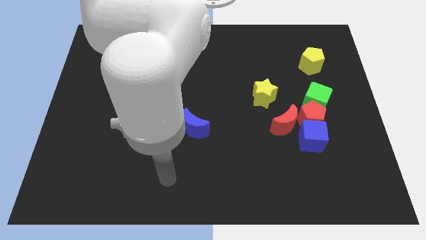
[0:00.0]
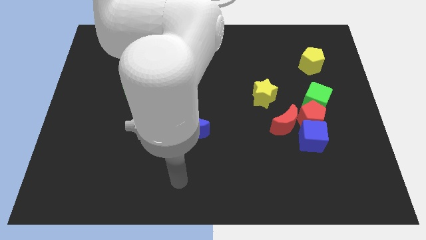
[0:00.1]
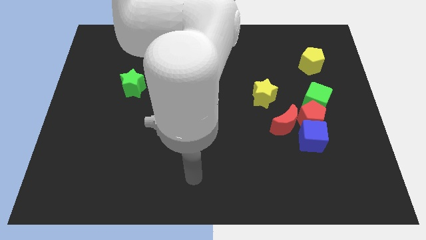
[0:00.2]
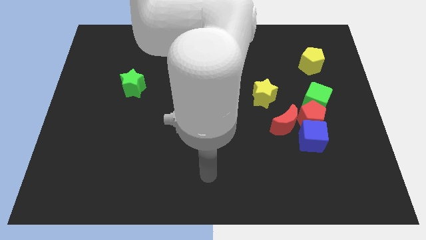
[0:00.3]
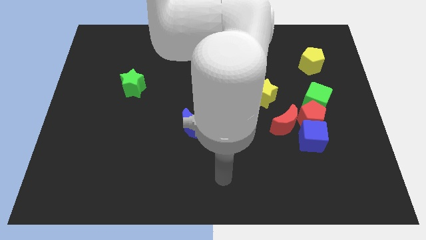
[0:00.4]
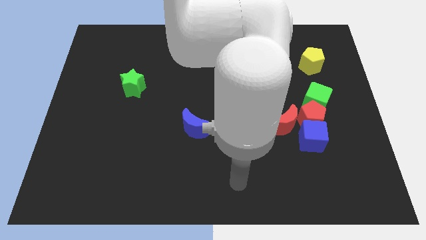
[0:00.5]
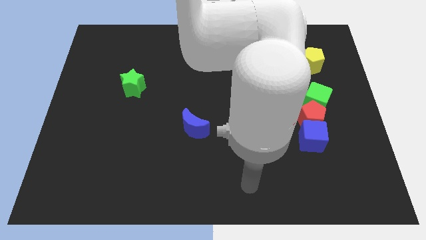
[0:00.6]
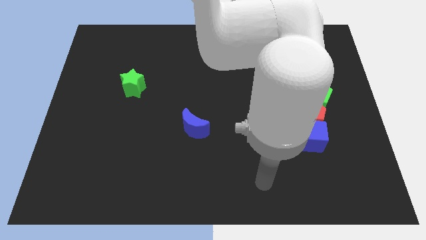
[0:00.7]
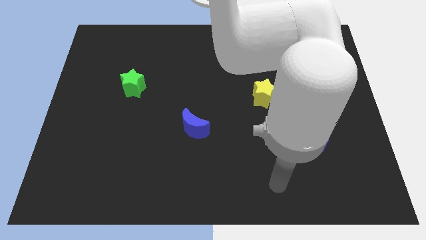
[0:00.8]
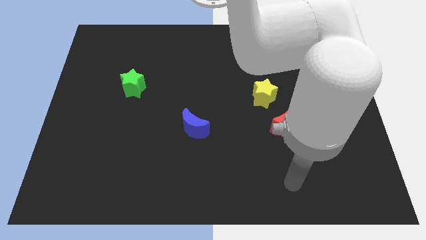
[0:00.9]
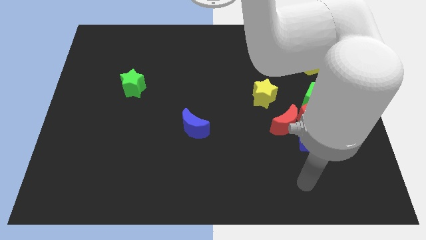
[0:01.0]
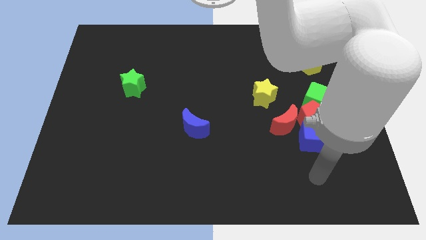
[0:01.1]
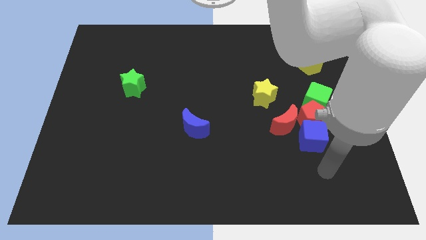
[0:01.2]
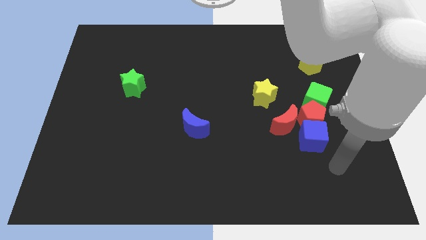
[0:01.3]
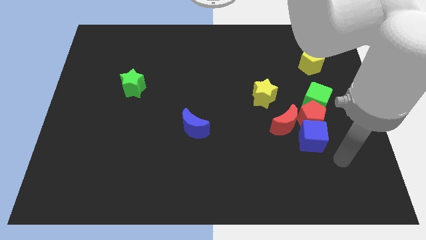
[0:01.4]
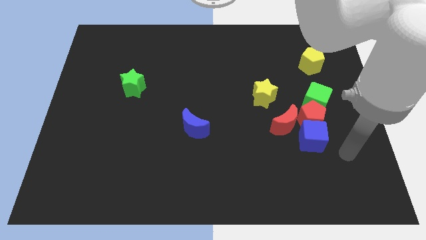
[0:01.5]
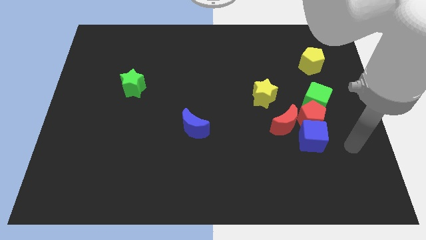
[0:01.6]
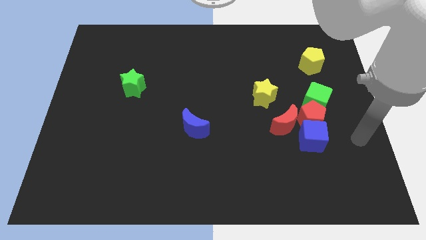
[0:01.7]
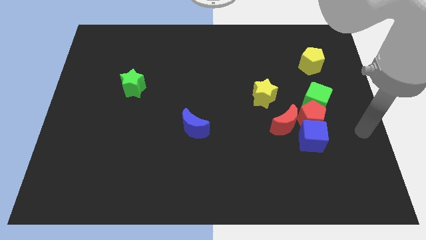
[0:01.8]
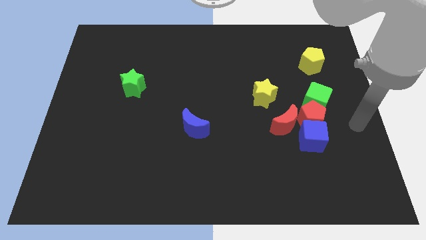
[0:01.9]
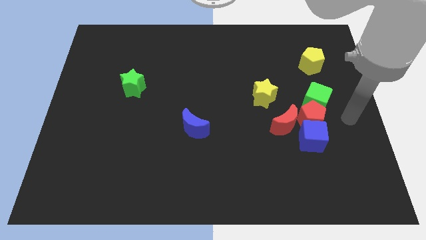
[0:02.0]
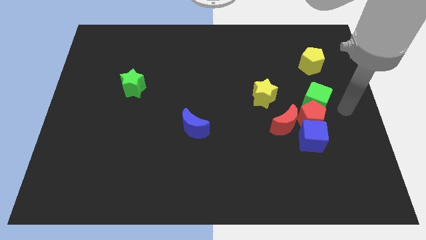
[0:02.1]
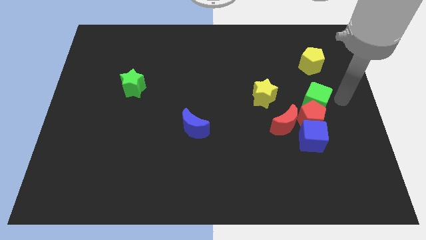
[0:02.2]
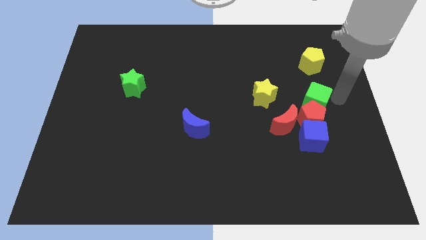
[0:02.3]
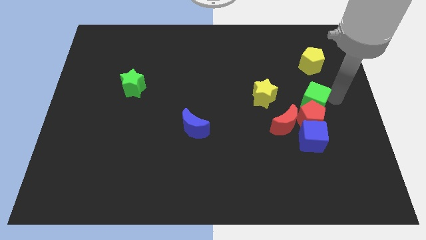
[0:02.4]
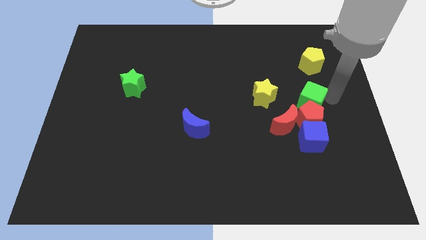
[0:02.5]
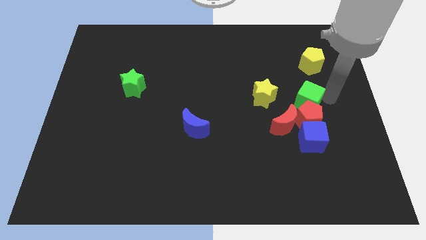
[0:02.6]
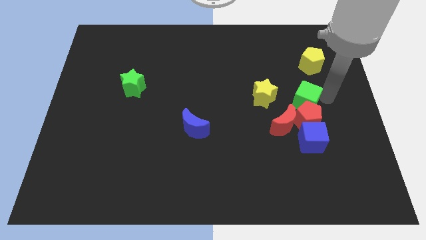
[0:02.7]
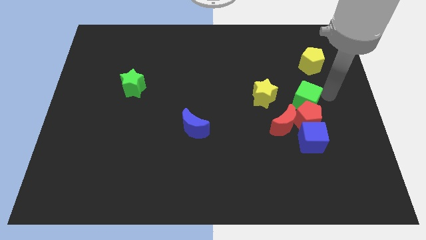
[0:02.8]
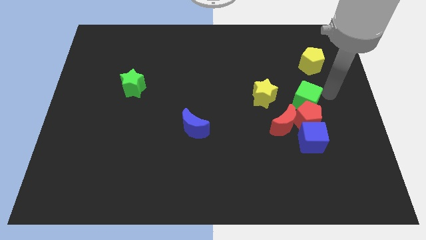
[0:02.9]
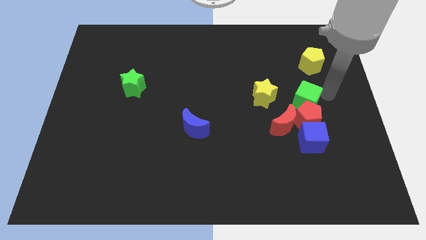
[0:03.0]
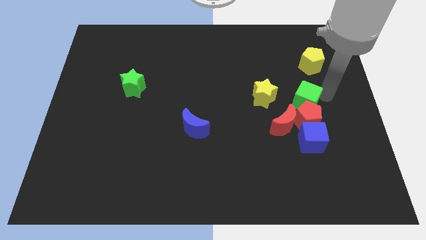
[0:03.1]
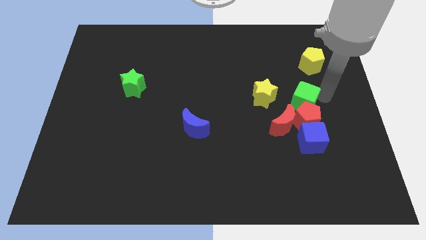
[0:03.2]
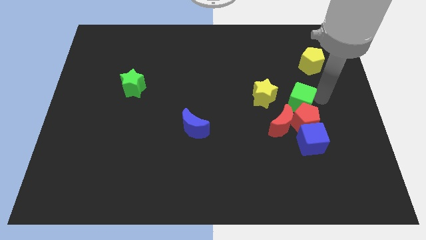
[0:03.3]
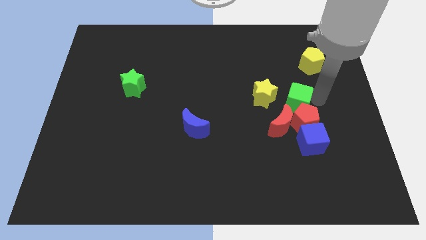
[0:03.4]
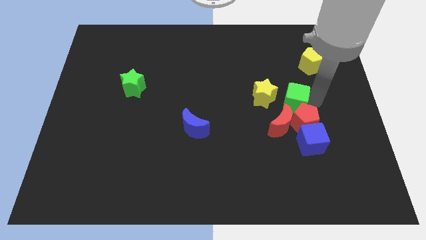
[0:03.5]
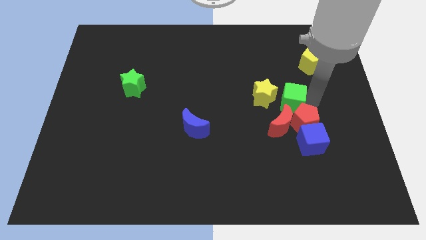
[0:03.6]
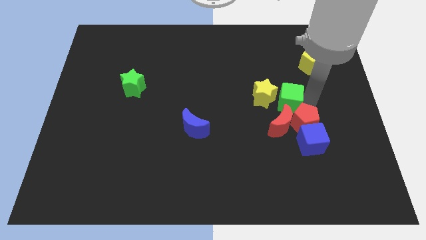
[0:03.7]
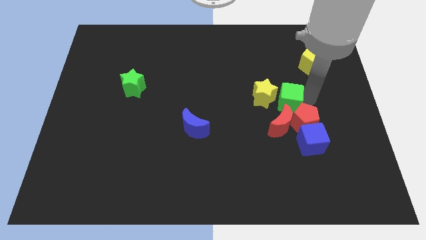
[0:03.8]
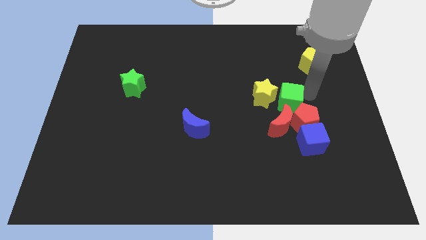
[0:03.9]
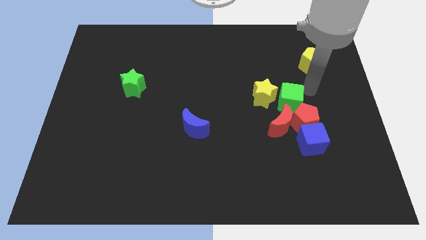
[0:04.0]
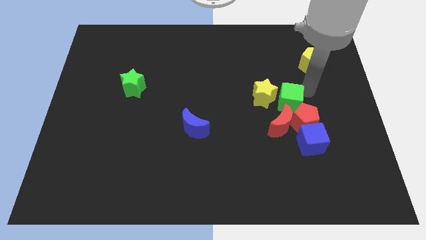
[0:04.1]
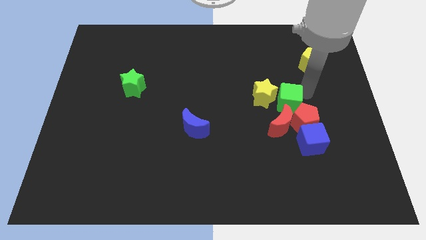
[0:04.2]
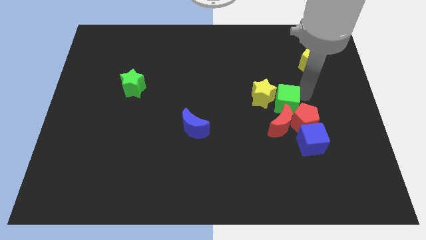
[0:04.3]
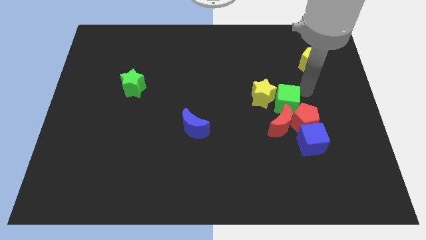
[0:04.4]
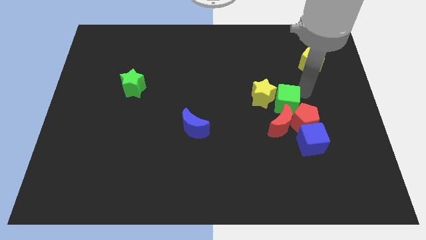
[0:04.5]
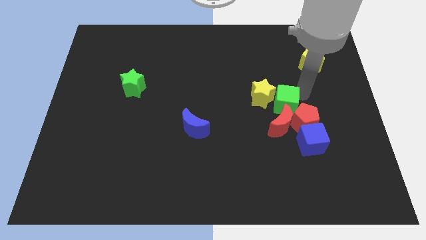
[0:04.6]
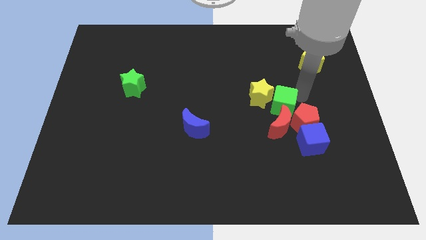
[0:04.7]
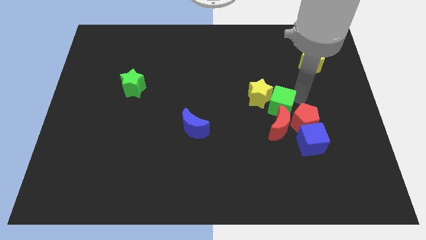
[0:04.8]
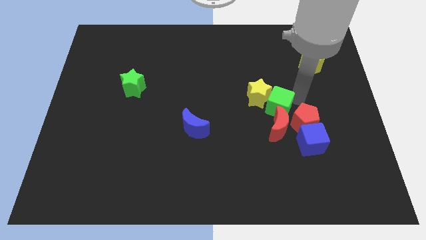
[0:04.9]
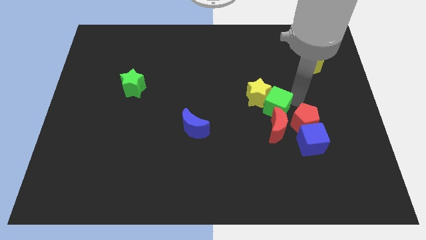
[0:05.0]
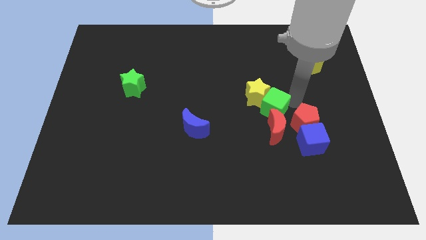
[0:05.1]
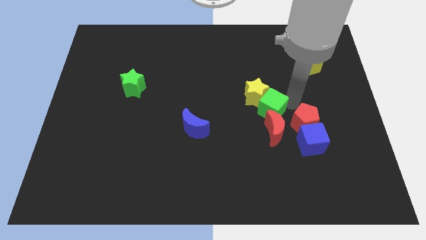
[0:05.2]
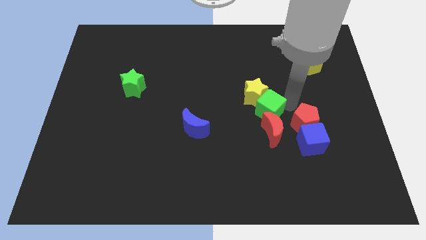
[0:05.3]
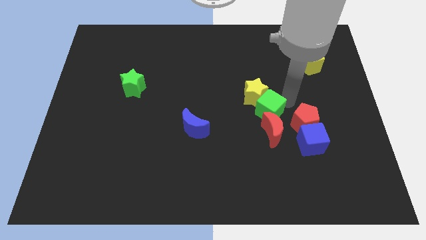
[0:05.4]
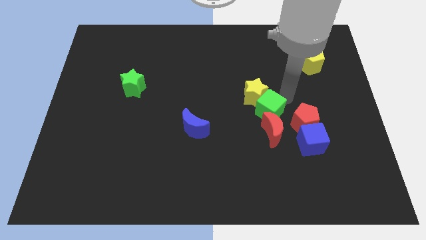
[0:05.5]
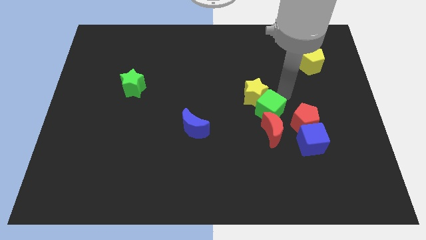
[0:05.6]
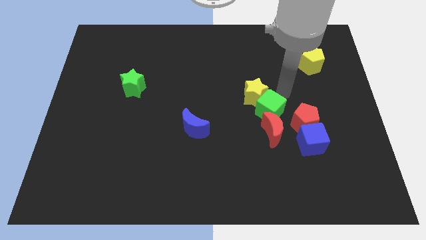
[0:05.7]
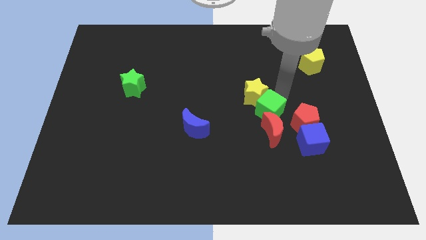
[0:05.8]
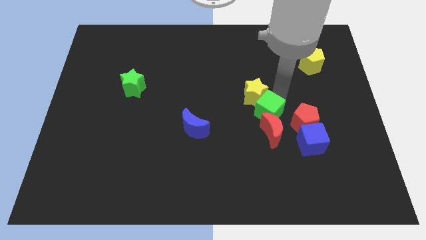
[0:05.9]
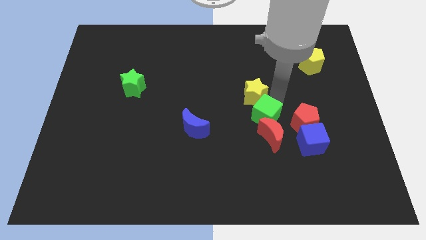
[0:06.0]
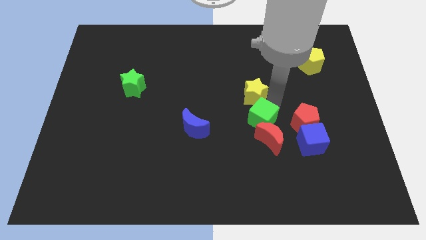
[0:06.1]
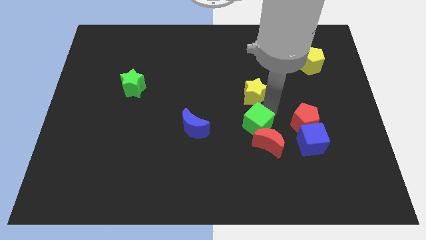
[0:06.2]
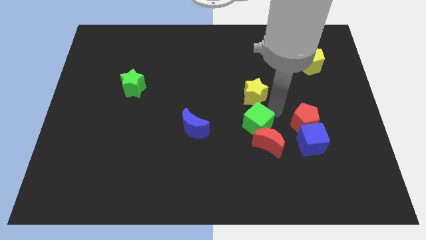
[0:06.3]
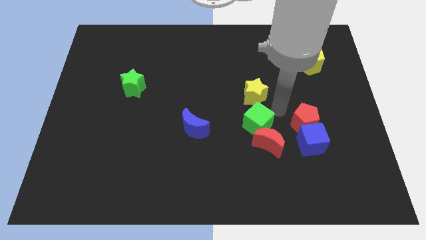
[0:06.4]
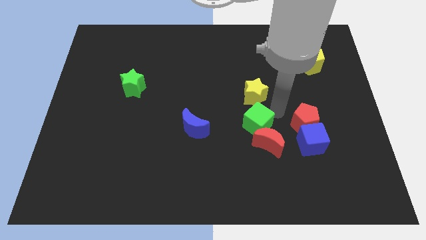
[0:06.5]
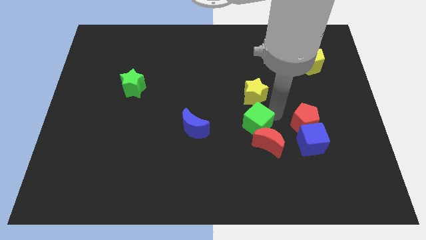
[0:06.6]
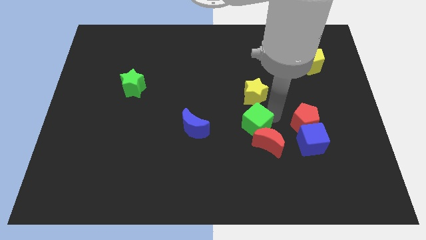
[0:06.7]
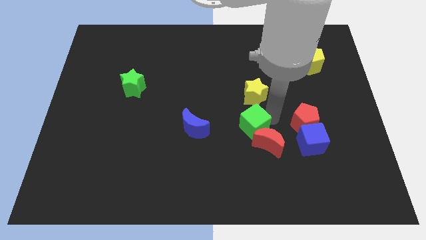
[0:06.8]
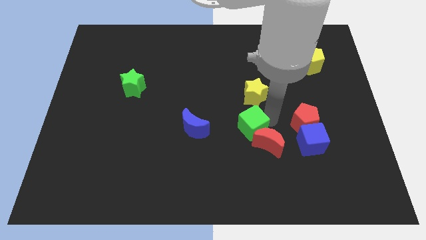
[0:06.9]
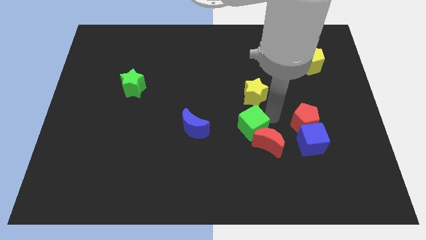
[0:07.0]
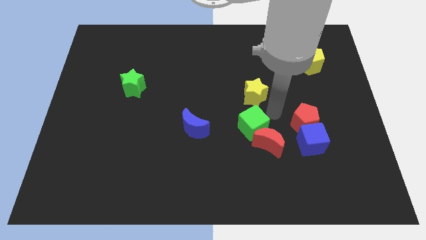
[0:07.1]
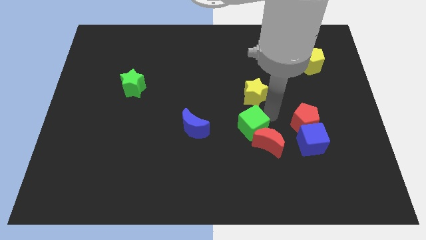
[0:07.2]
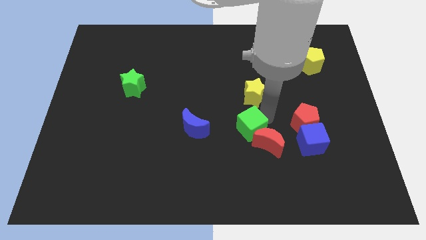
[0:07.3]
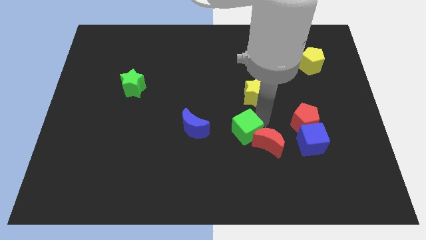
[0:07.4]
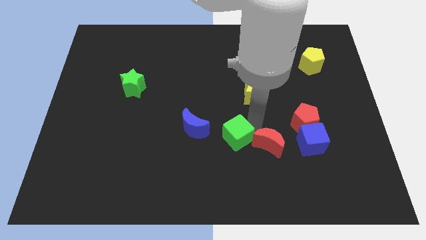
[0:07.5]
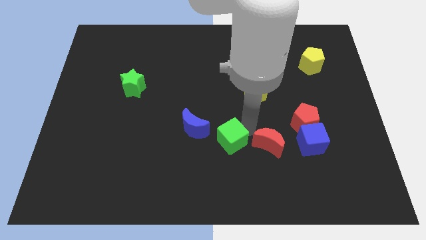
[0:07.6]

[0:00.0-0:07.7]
move the green cube diagonally down and to the right of the blue moon
